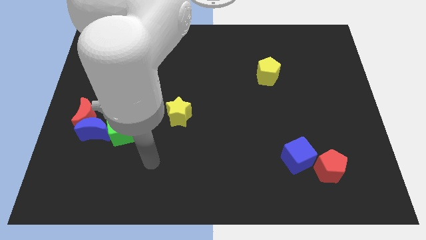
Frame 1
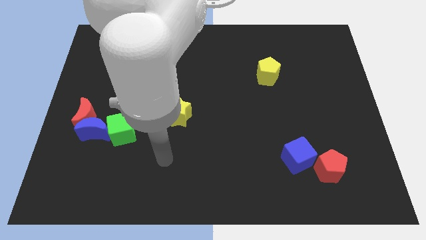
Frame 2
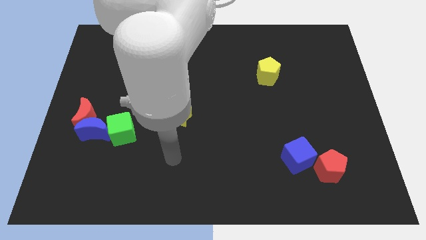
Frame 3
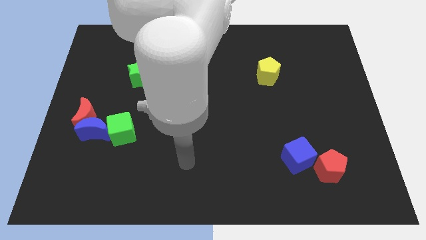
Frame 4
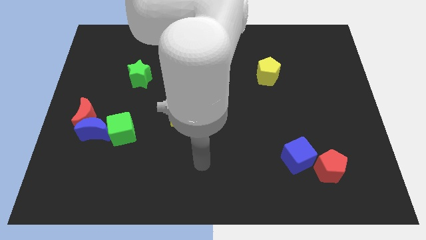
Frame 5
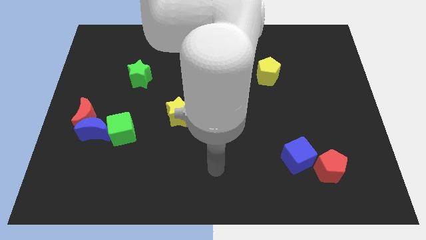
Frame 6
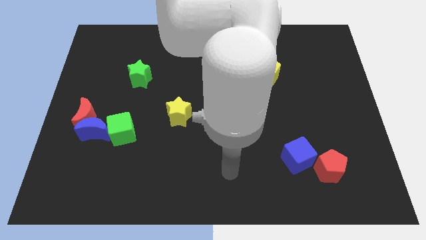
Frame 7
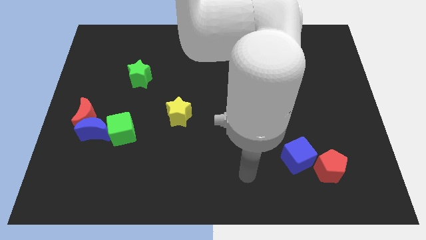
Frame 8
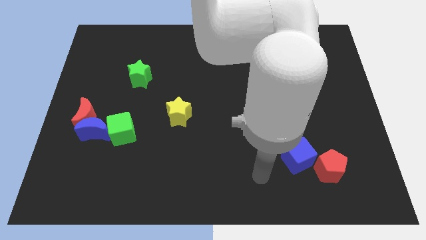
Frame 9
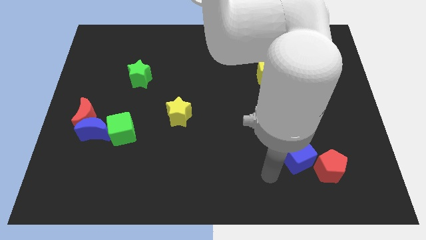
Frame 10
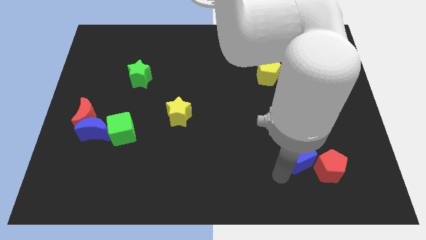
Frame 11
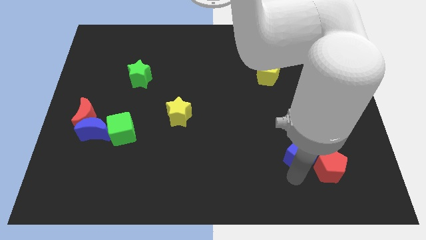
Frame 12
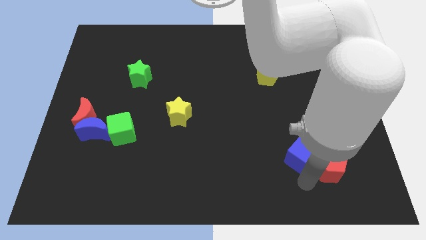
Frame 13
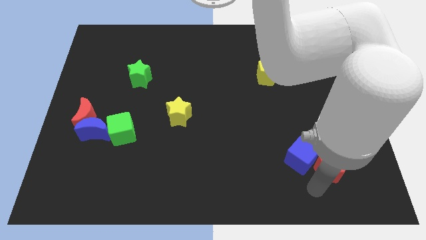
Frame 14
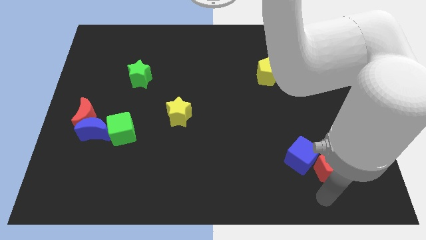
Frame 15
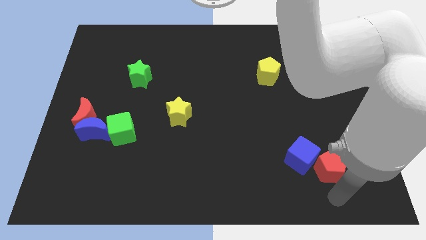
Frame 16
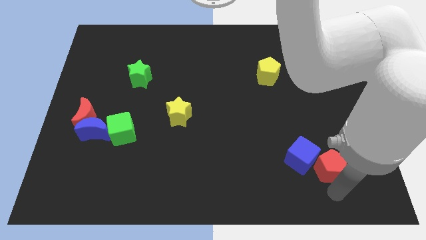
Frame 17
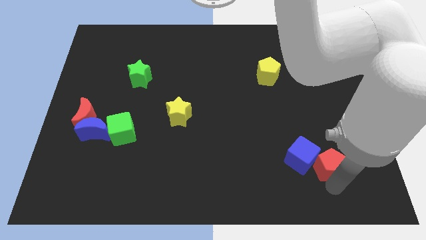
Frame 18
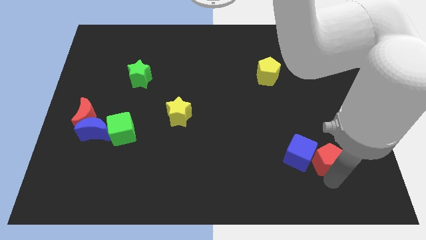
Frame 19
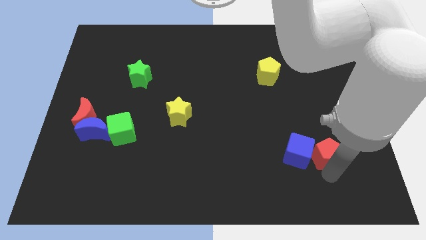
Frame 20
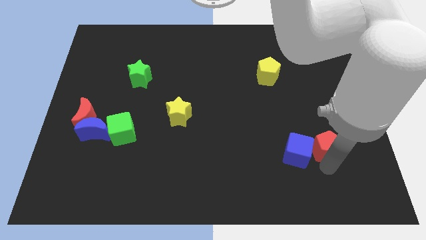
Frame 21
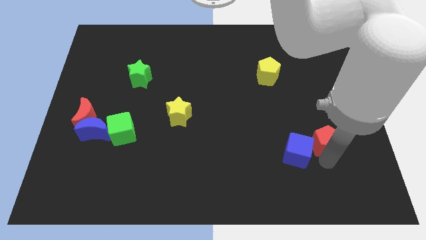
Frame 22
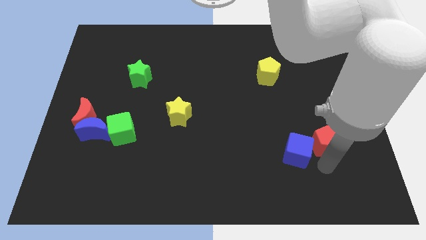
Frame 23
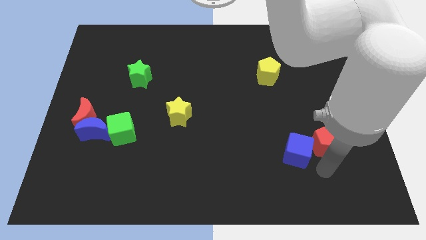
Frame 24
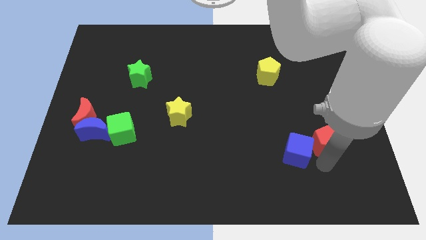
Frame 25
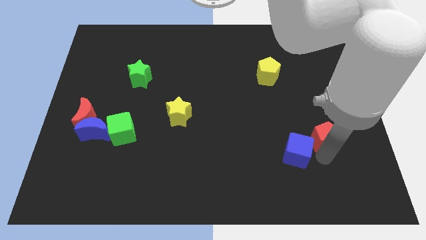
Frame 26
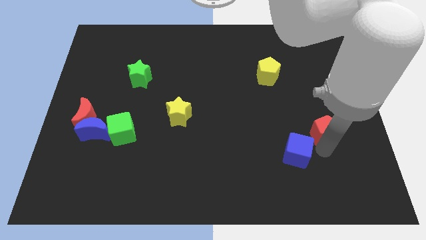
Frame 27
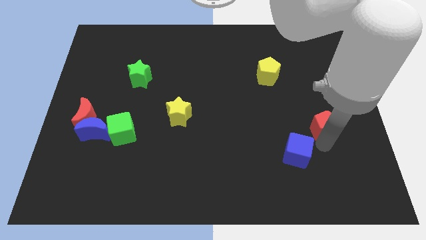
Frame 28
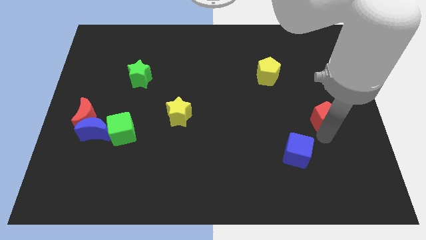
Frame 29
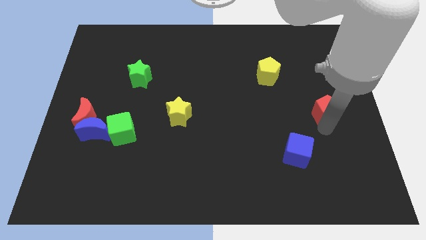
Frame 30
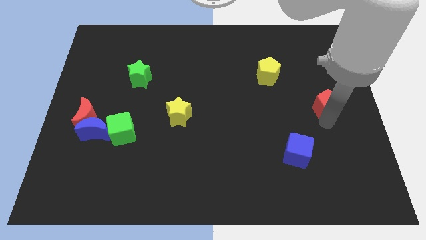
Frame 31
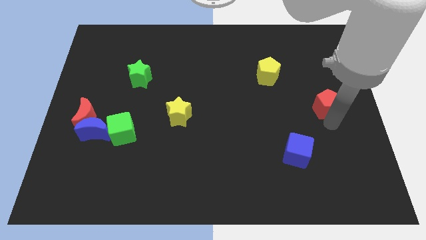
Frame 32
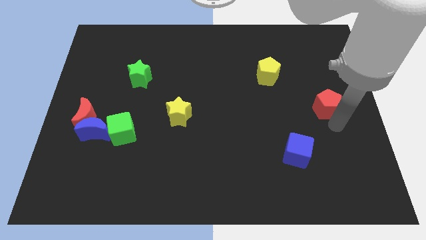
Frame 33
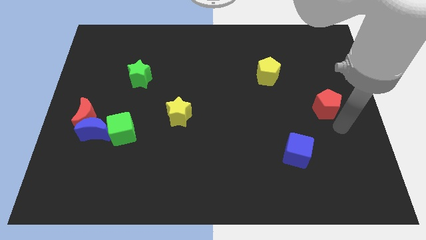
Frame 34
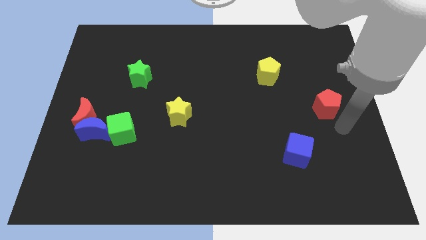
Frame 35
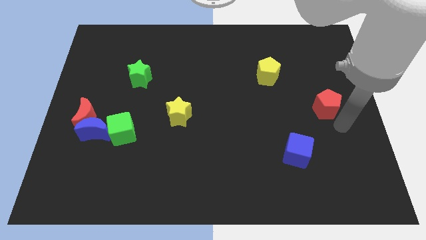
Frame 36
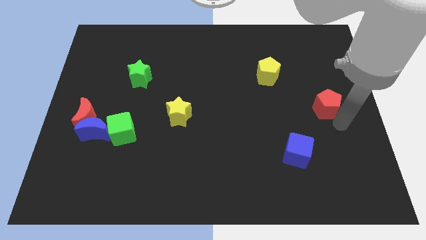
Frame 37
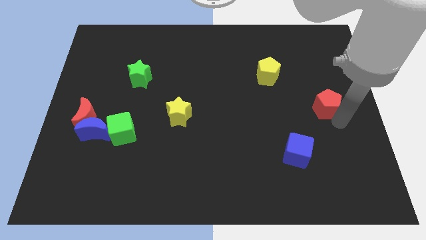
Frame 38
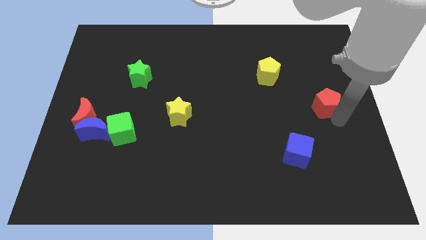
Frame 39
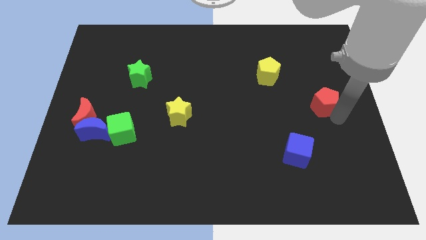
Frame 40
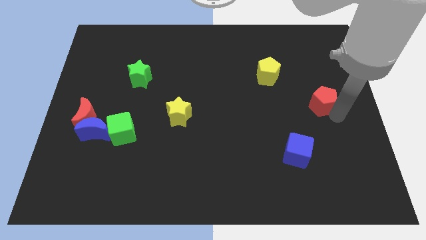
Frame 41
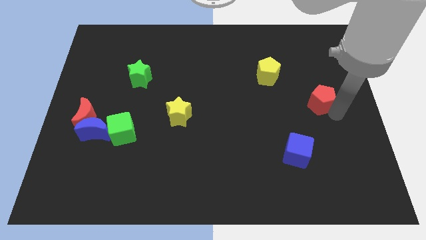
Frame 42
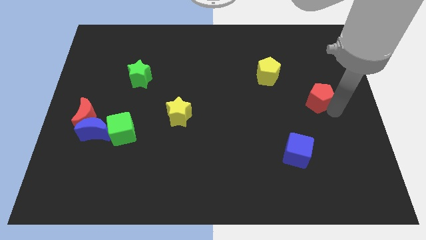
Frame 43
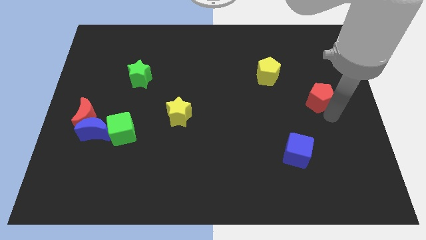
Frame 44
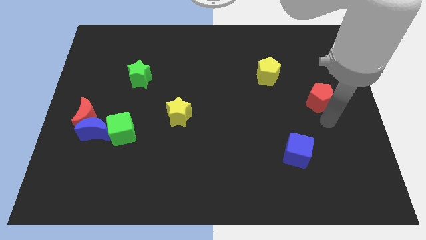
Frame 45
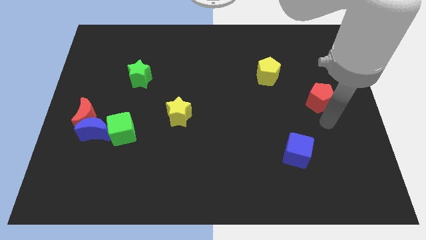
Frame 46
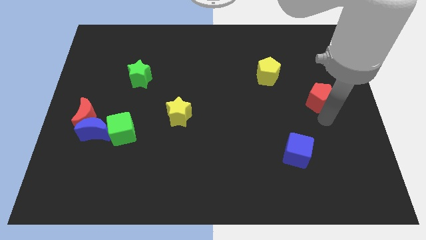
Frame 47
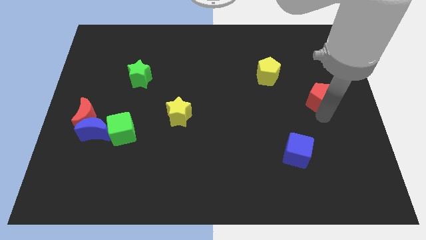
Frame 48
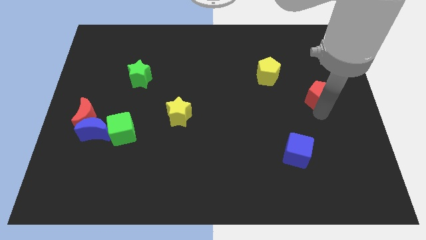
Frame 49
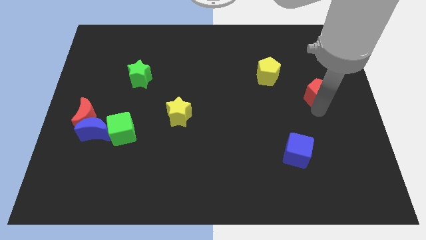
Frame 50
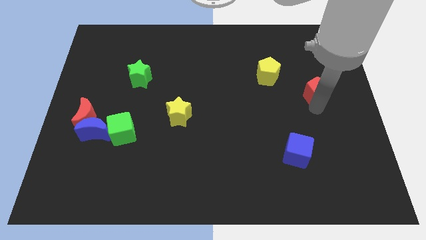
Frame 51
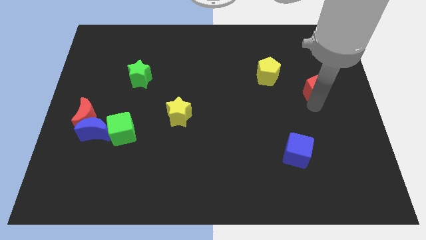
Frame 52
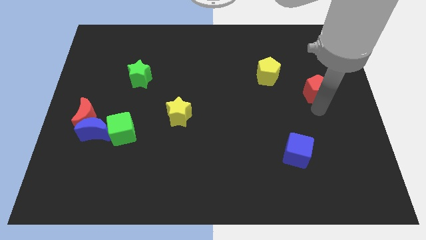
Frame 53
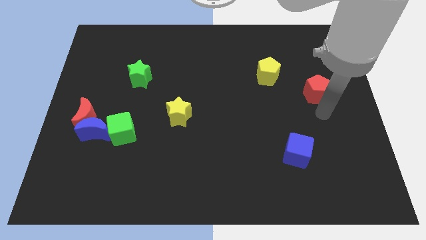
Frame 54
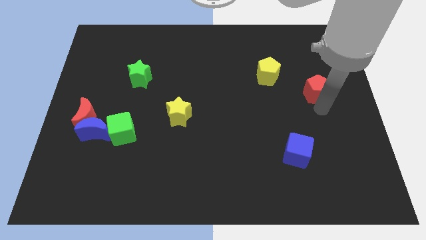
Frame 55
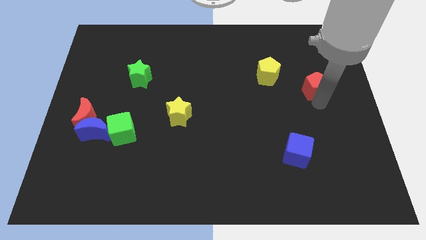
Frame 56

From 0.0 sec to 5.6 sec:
slide the red pentagon to the right of the yellow pentagon

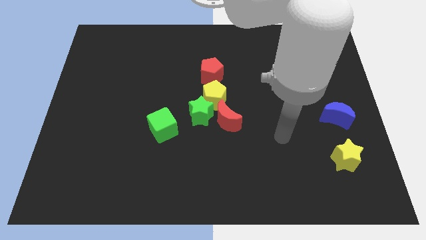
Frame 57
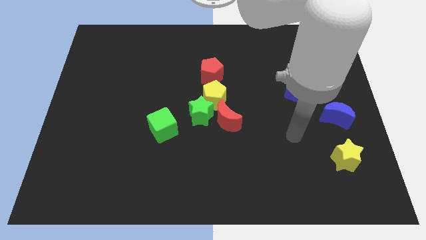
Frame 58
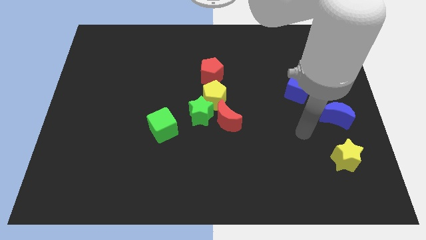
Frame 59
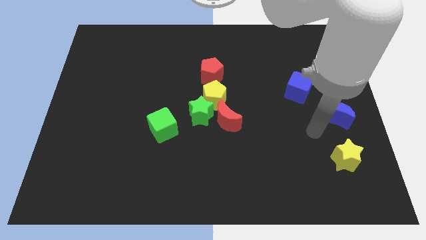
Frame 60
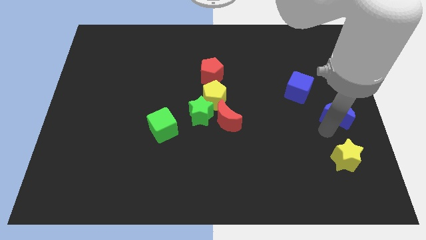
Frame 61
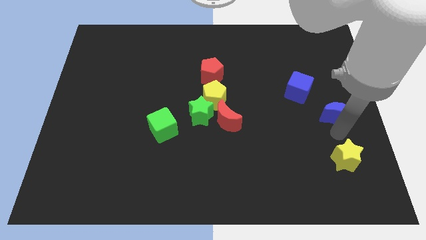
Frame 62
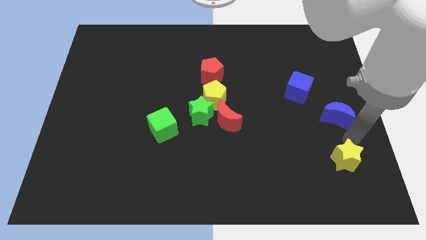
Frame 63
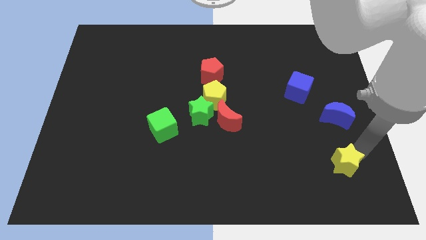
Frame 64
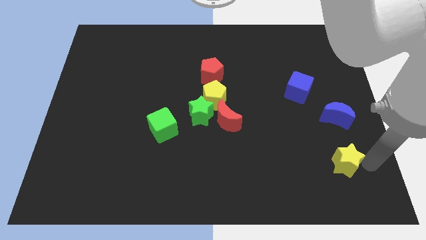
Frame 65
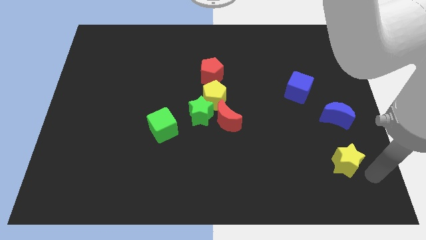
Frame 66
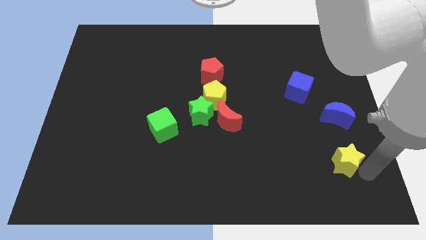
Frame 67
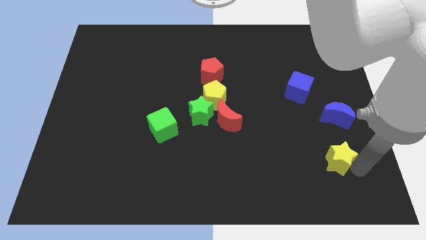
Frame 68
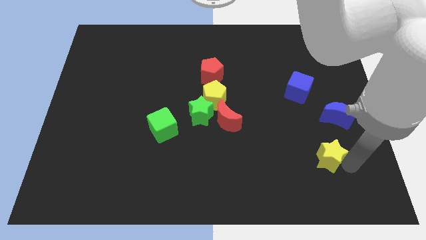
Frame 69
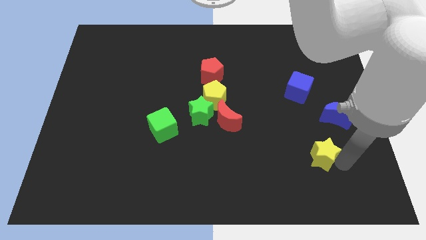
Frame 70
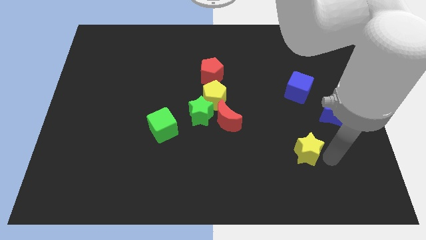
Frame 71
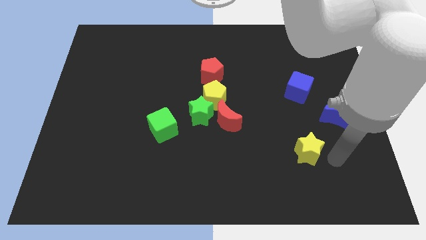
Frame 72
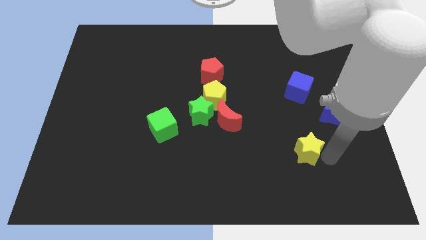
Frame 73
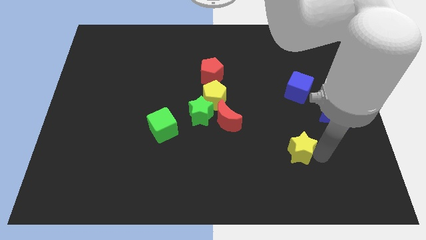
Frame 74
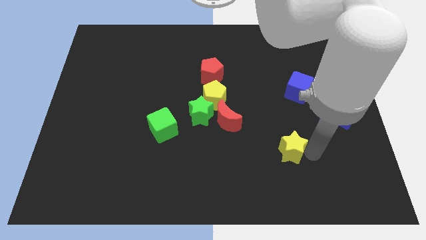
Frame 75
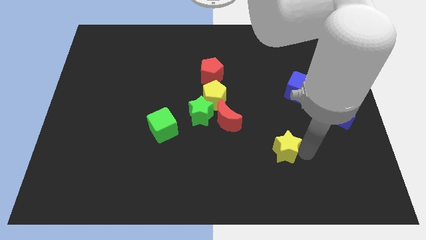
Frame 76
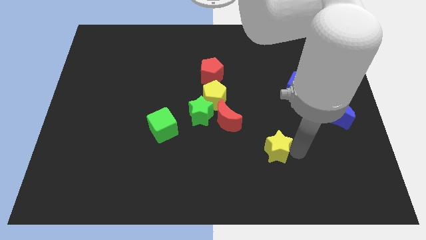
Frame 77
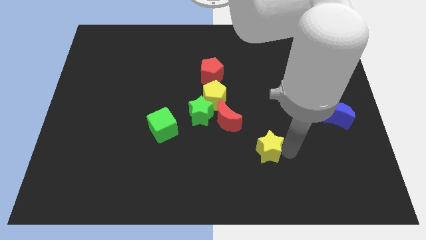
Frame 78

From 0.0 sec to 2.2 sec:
push the yellow star to the bottom right side of the red moon
